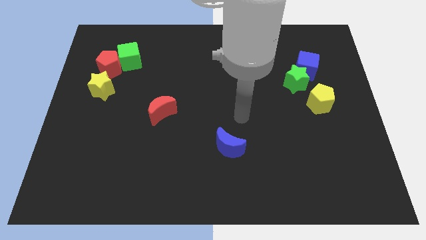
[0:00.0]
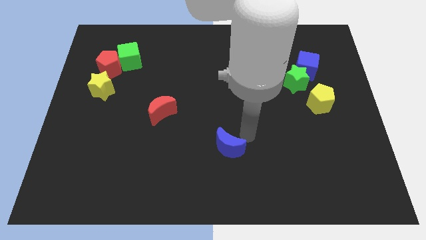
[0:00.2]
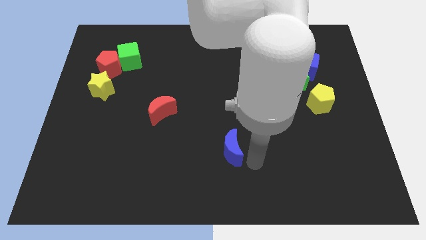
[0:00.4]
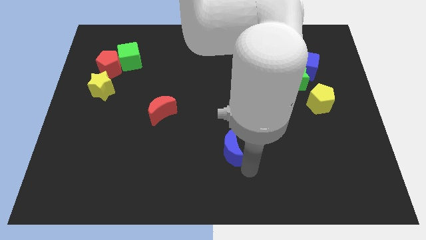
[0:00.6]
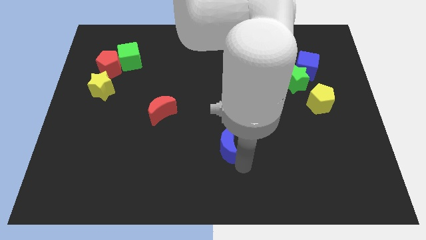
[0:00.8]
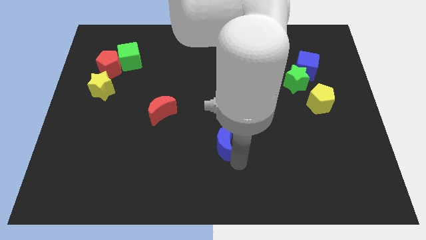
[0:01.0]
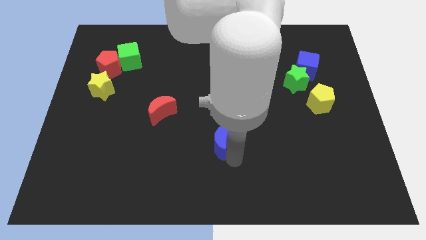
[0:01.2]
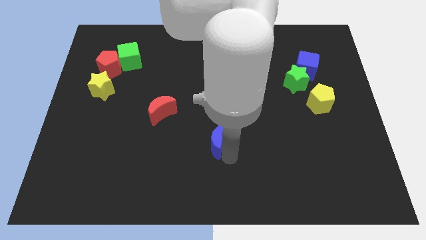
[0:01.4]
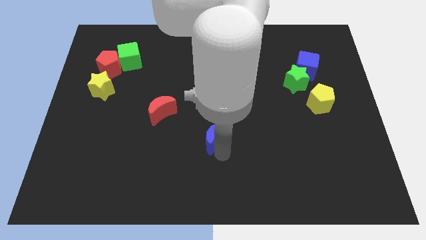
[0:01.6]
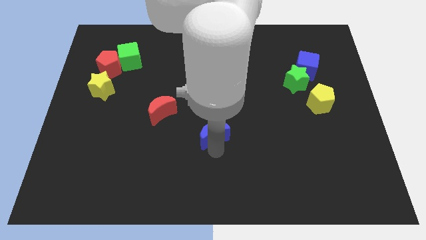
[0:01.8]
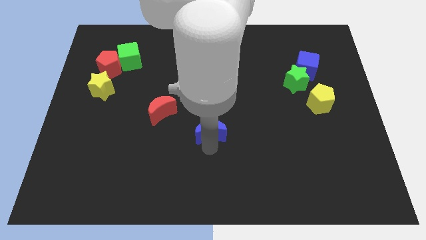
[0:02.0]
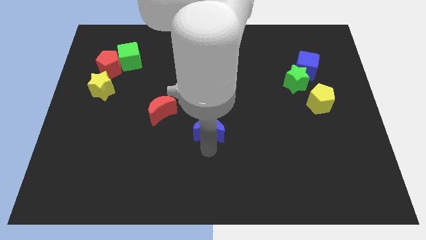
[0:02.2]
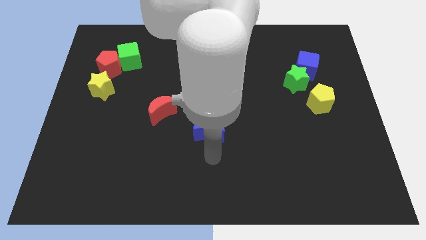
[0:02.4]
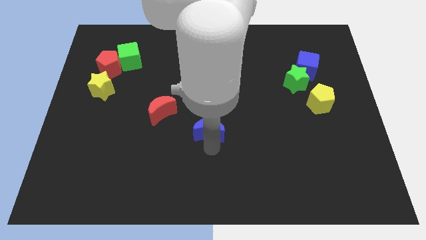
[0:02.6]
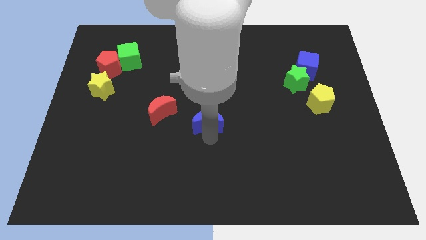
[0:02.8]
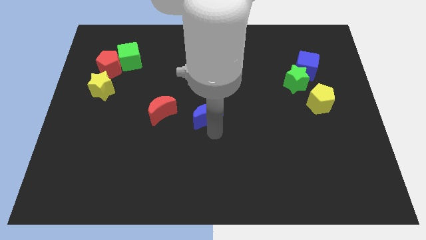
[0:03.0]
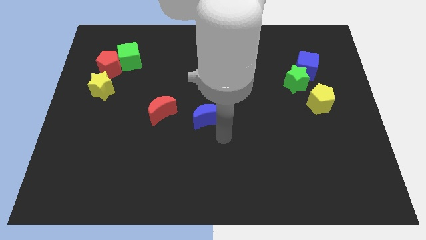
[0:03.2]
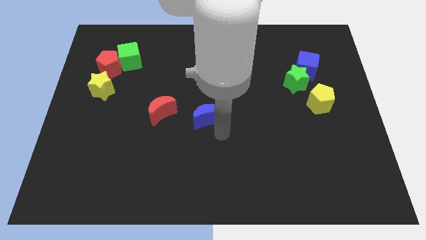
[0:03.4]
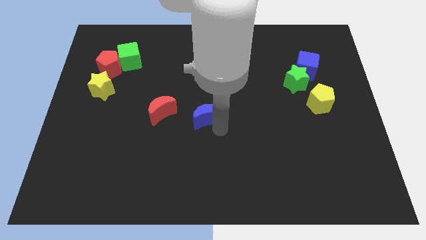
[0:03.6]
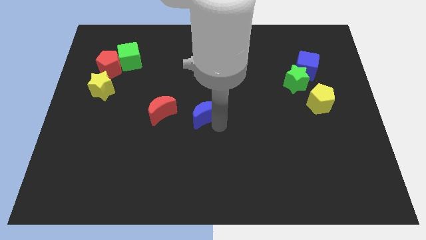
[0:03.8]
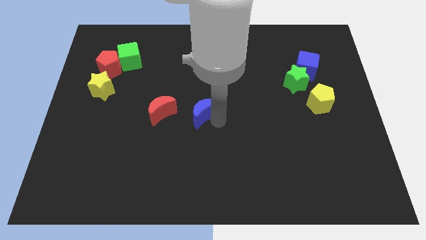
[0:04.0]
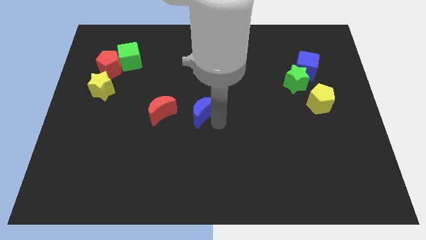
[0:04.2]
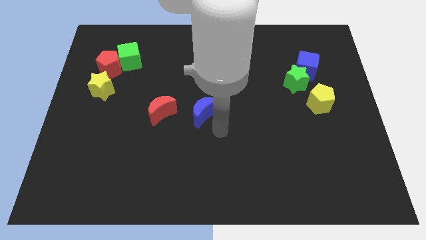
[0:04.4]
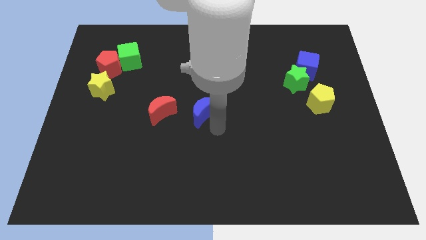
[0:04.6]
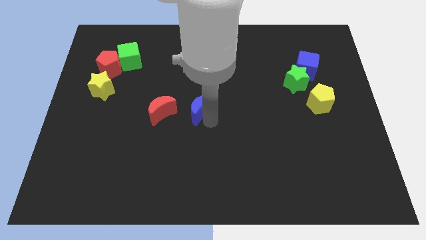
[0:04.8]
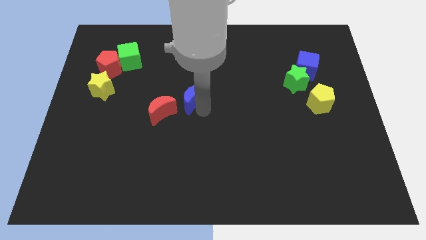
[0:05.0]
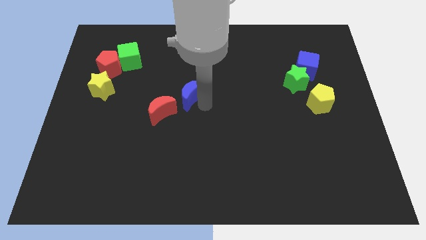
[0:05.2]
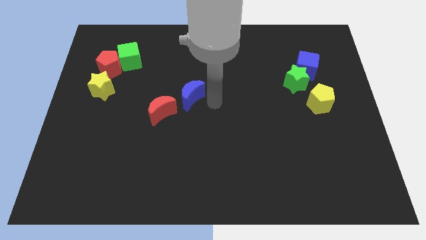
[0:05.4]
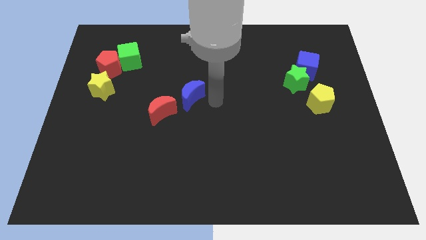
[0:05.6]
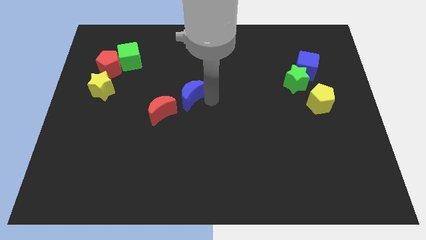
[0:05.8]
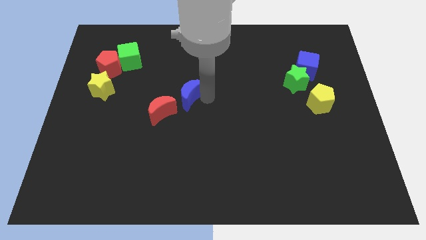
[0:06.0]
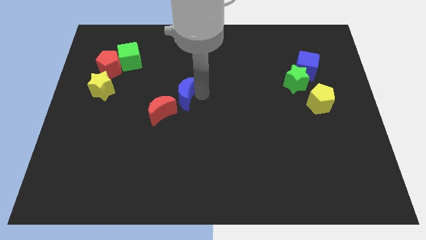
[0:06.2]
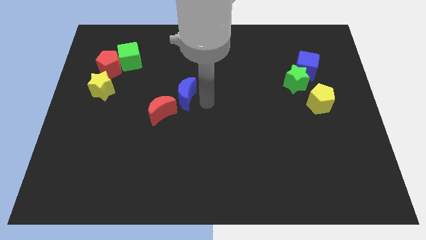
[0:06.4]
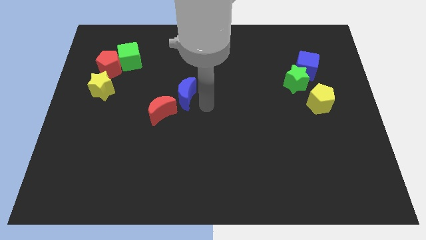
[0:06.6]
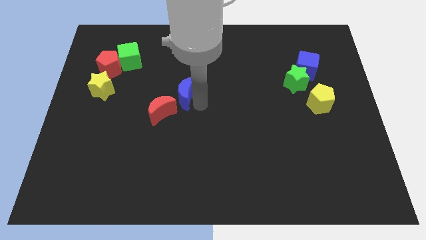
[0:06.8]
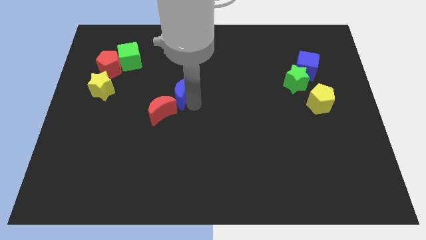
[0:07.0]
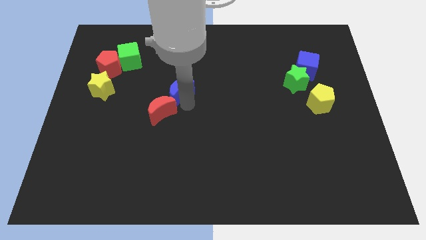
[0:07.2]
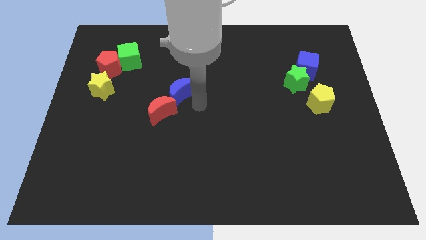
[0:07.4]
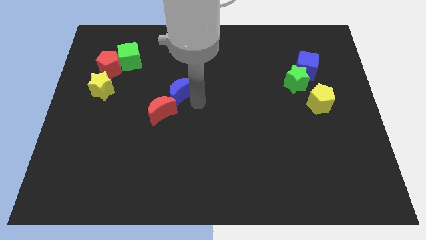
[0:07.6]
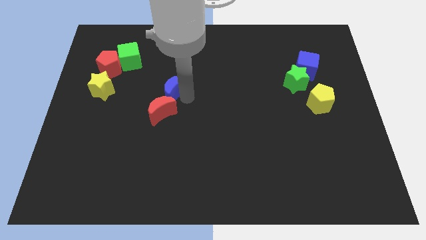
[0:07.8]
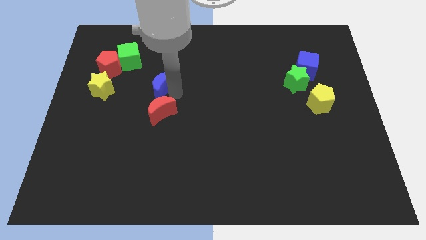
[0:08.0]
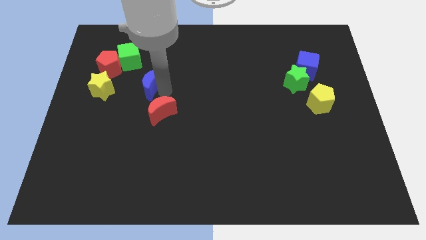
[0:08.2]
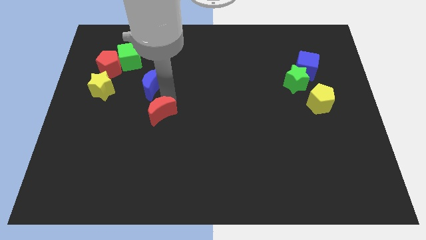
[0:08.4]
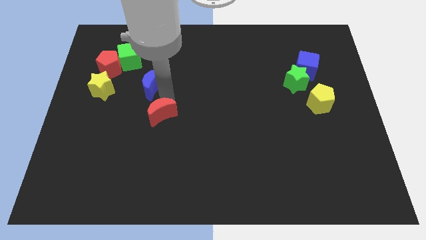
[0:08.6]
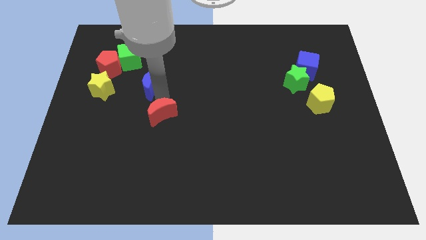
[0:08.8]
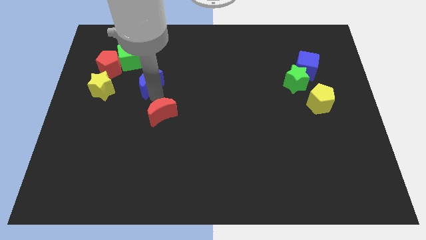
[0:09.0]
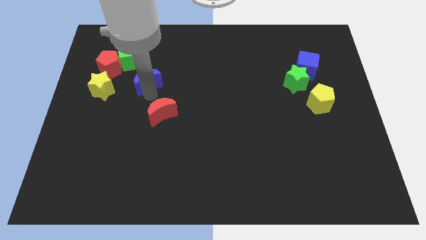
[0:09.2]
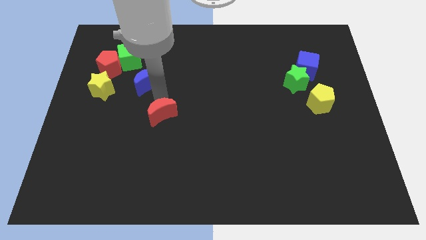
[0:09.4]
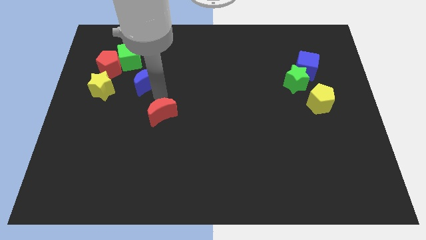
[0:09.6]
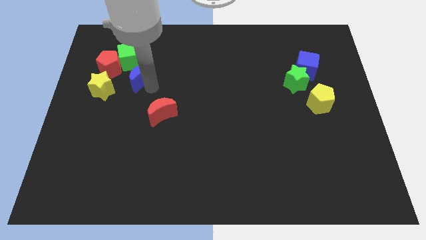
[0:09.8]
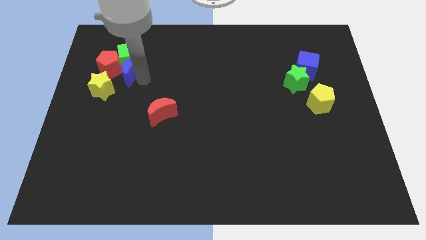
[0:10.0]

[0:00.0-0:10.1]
slide the blue moon towards the red pentagon

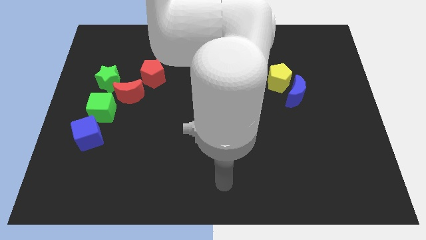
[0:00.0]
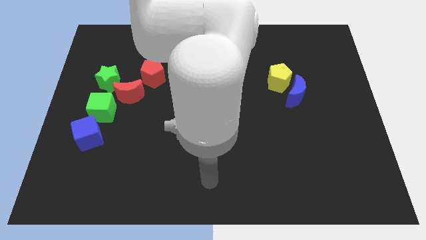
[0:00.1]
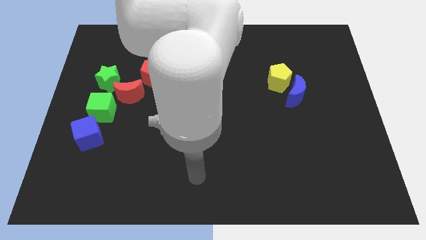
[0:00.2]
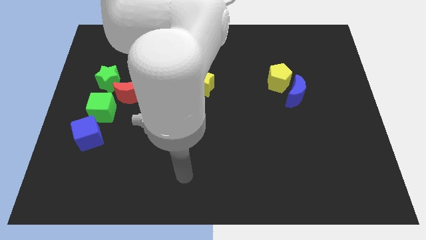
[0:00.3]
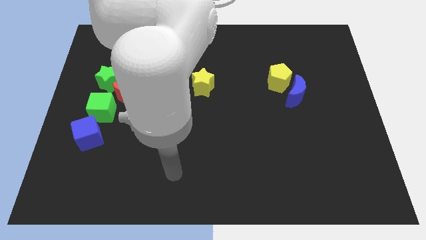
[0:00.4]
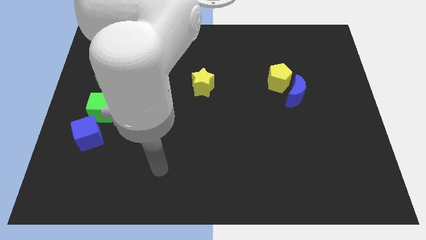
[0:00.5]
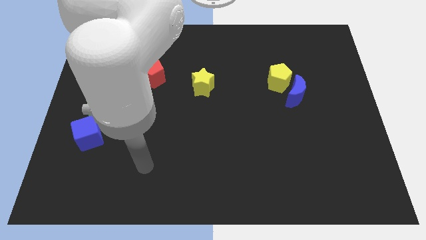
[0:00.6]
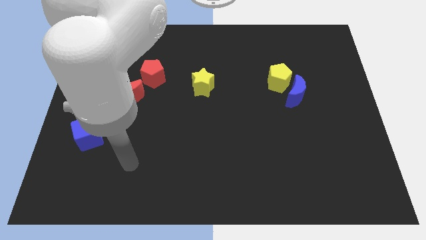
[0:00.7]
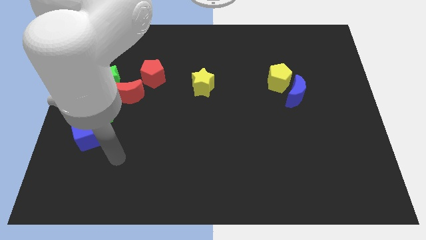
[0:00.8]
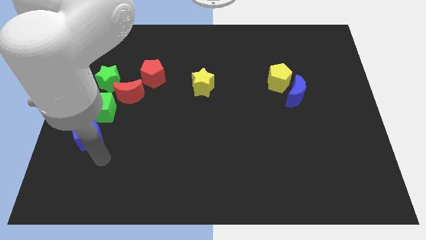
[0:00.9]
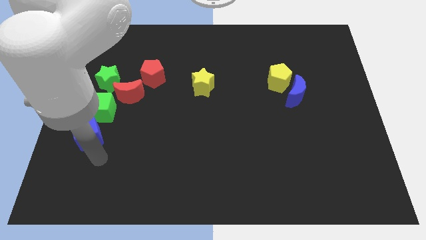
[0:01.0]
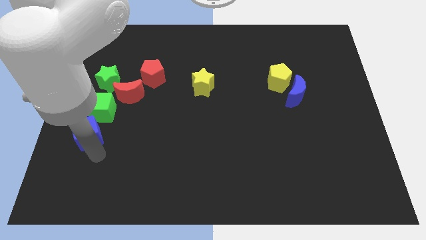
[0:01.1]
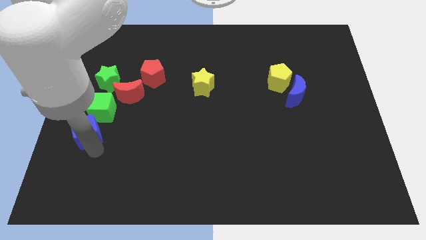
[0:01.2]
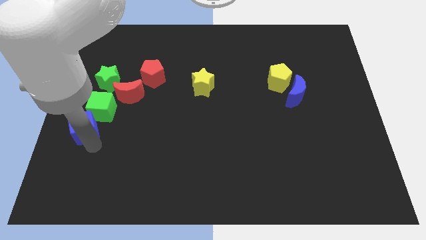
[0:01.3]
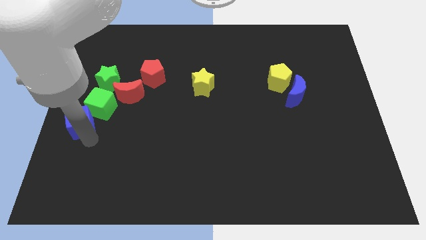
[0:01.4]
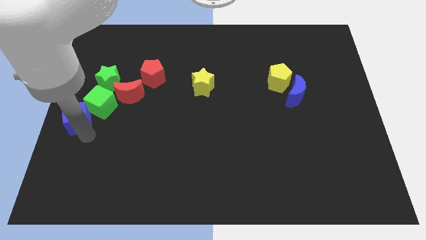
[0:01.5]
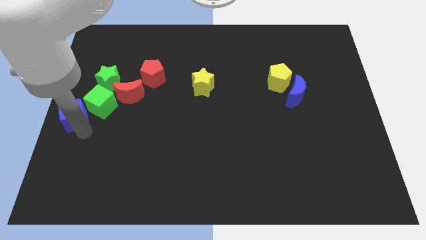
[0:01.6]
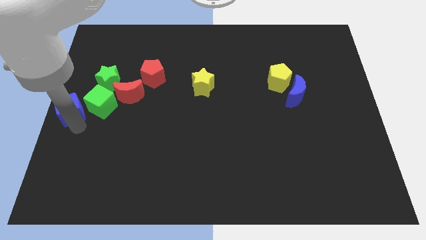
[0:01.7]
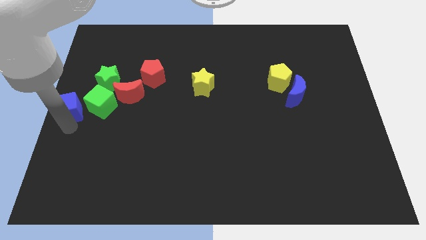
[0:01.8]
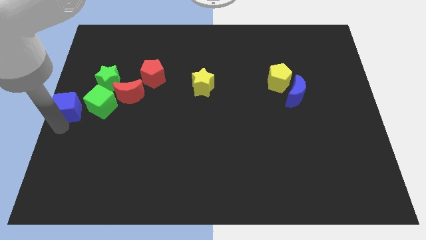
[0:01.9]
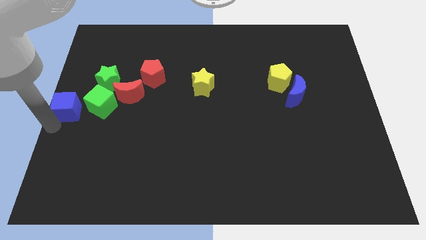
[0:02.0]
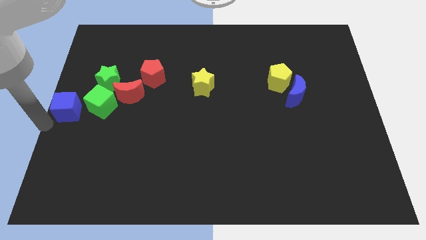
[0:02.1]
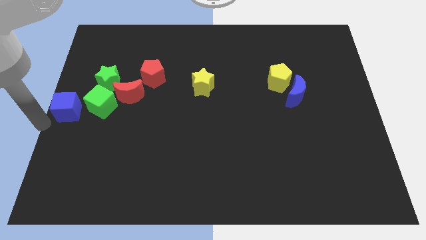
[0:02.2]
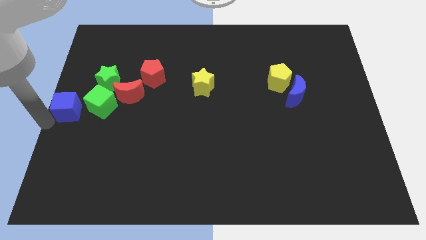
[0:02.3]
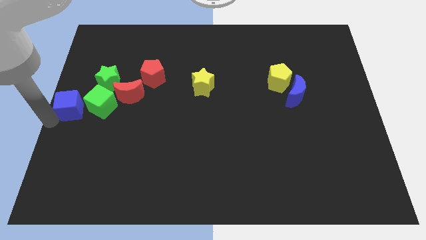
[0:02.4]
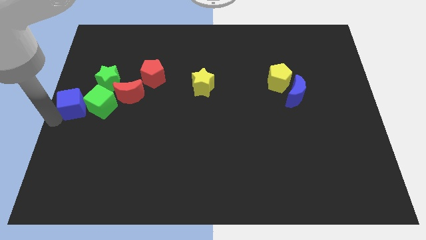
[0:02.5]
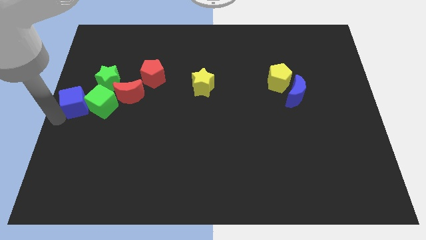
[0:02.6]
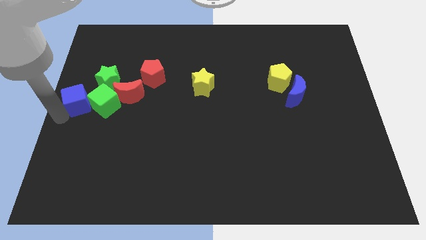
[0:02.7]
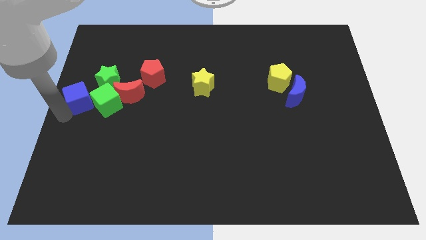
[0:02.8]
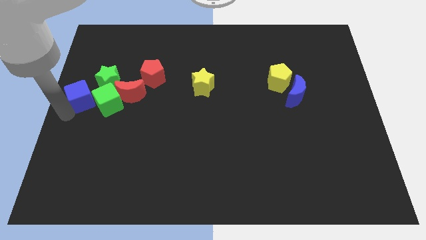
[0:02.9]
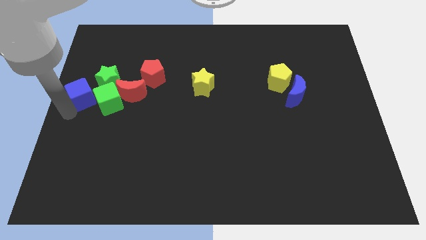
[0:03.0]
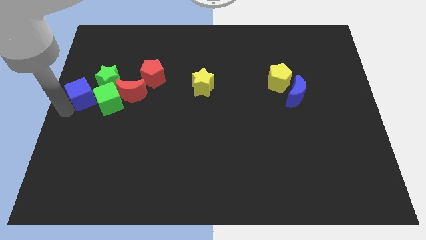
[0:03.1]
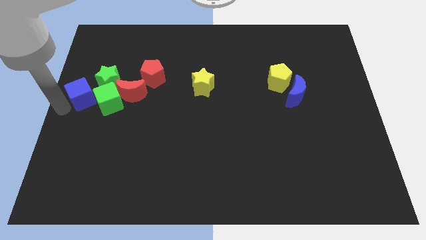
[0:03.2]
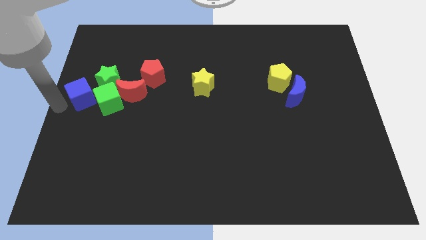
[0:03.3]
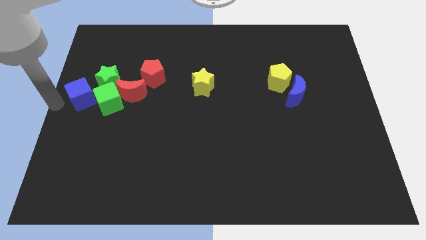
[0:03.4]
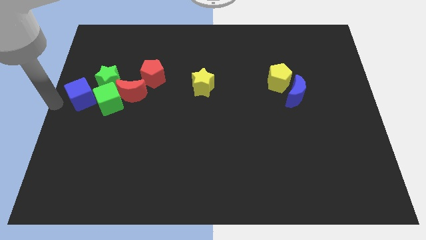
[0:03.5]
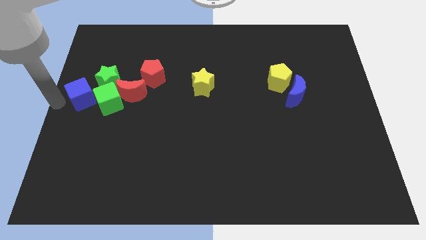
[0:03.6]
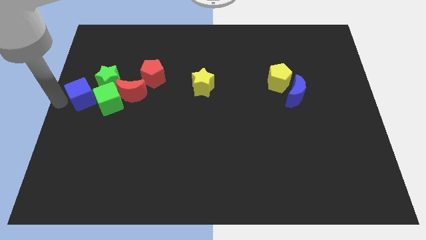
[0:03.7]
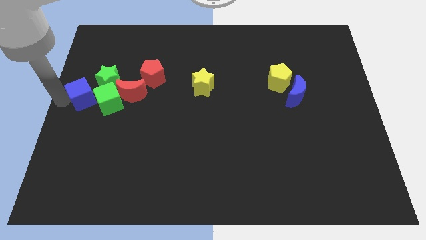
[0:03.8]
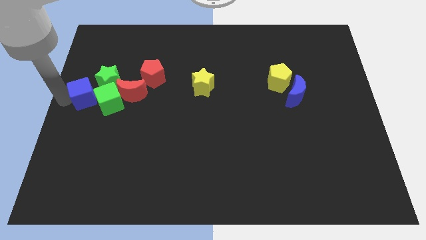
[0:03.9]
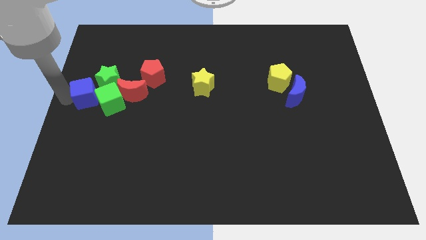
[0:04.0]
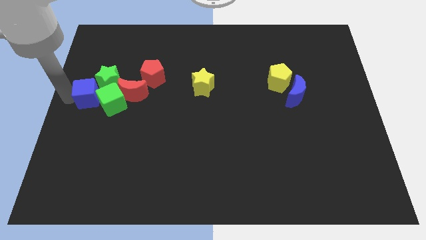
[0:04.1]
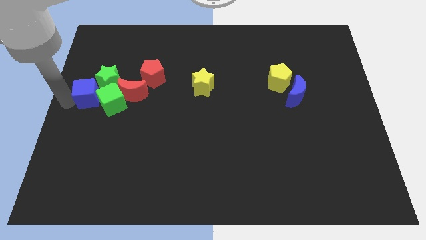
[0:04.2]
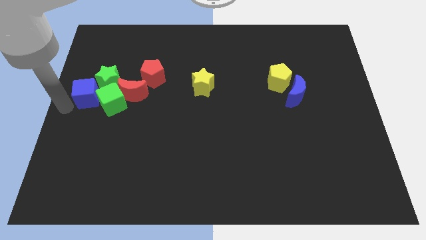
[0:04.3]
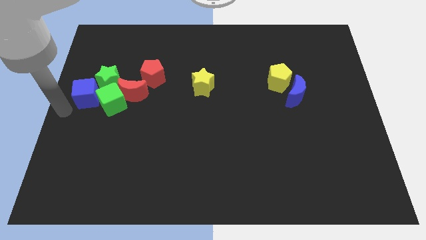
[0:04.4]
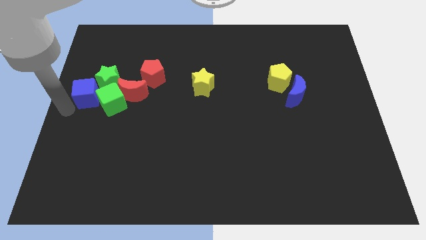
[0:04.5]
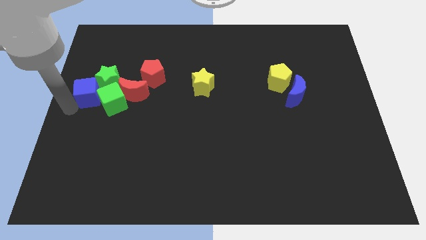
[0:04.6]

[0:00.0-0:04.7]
put the blue cube close to the green star
